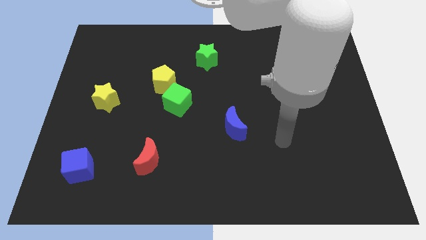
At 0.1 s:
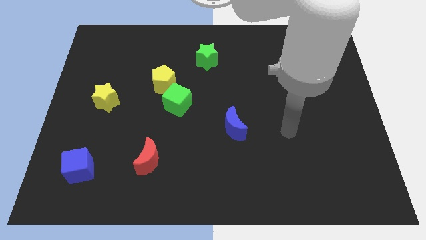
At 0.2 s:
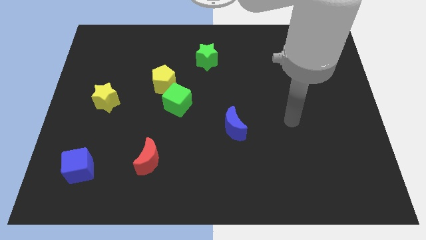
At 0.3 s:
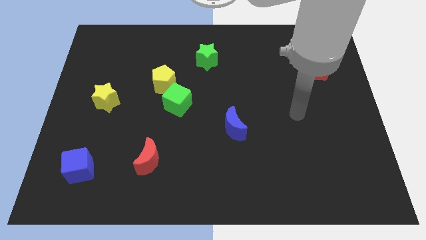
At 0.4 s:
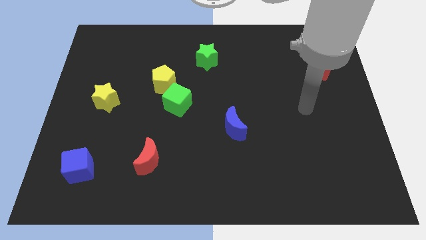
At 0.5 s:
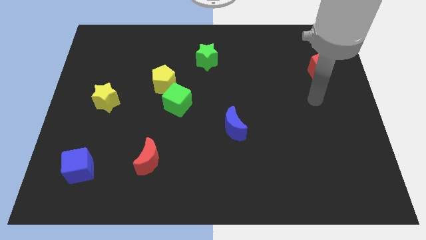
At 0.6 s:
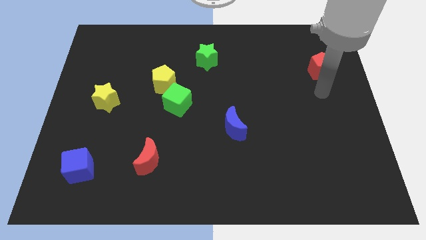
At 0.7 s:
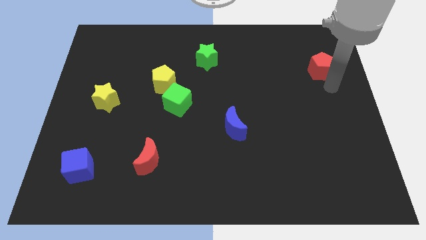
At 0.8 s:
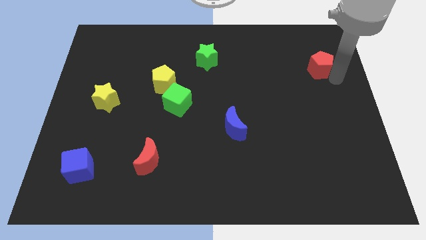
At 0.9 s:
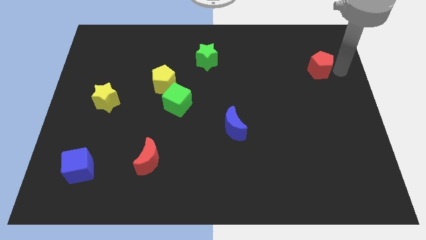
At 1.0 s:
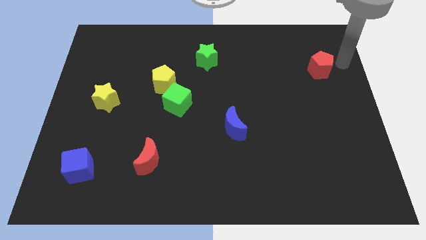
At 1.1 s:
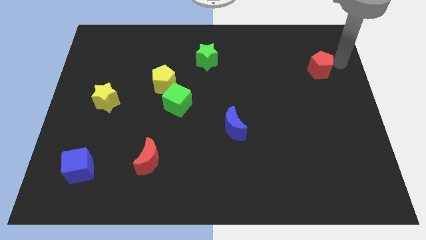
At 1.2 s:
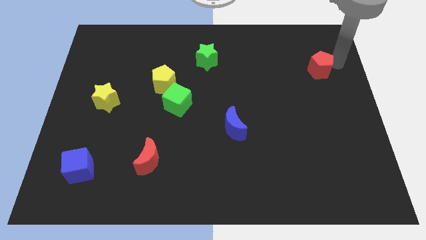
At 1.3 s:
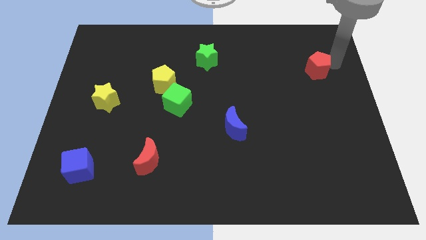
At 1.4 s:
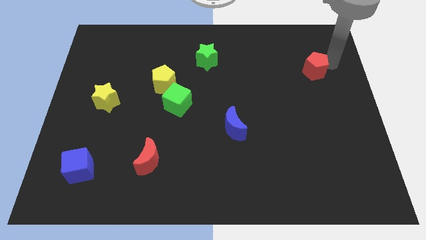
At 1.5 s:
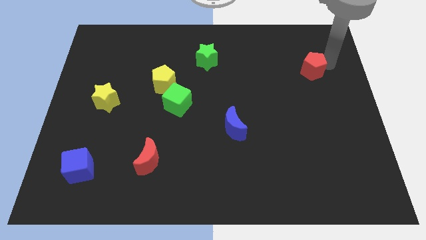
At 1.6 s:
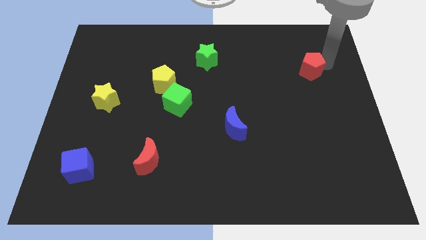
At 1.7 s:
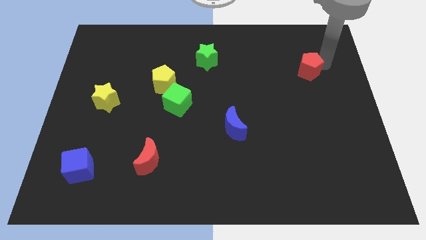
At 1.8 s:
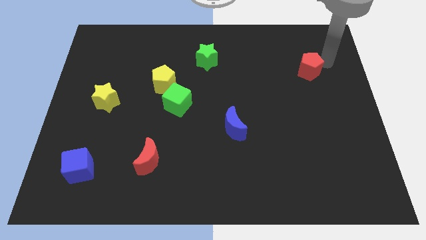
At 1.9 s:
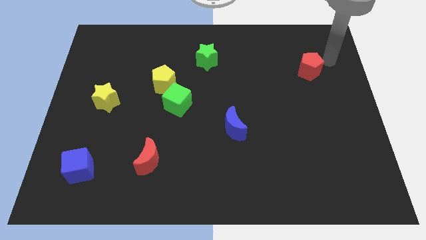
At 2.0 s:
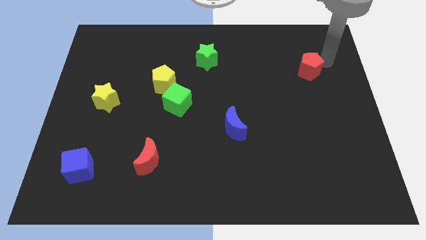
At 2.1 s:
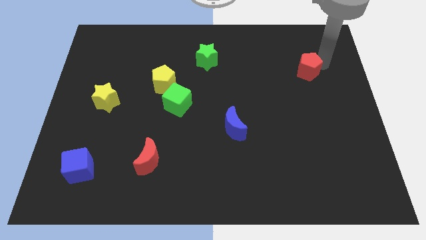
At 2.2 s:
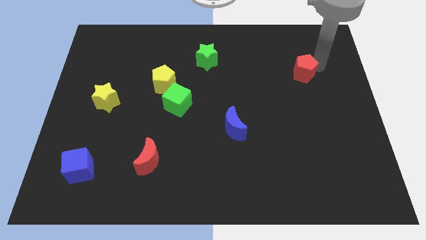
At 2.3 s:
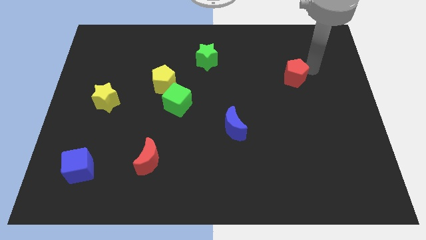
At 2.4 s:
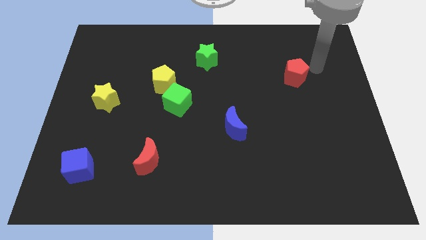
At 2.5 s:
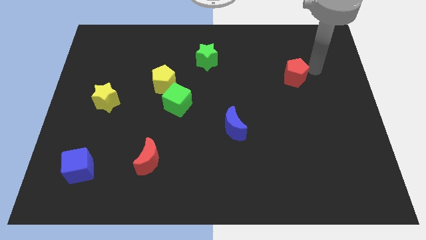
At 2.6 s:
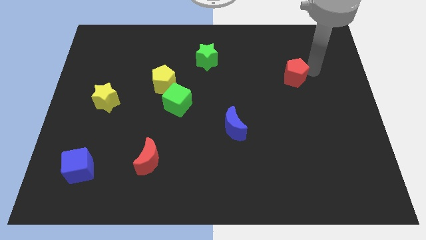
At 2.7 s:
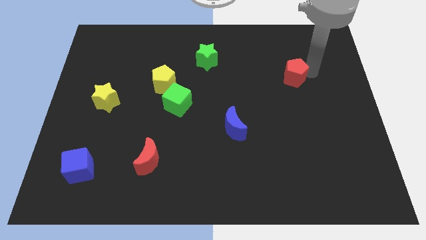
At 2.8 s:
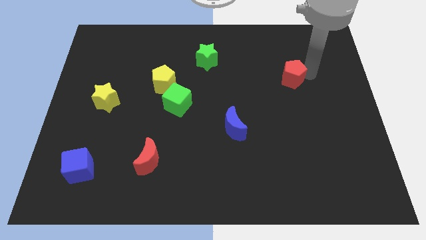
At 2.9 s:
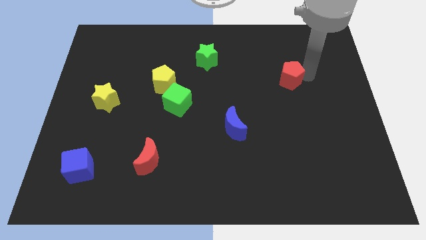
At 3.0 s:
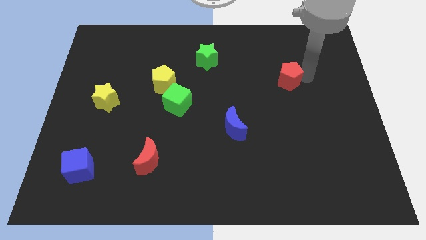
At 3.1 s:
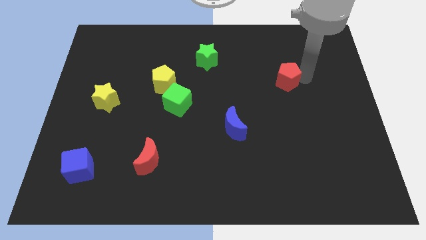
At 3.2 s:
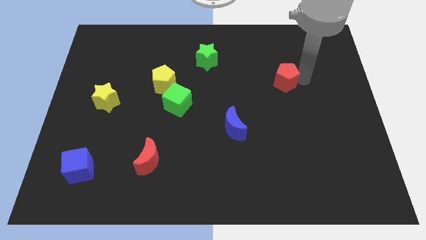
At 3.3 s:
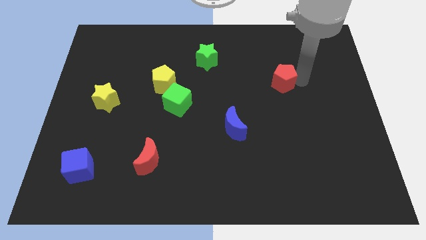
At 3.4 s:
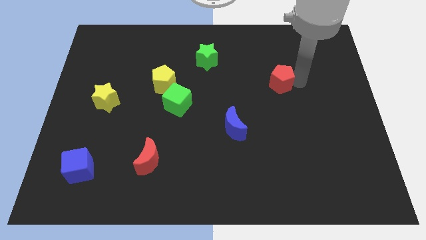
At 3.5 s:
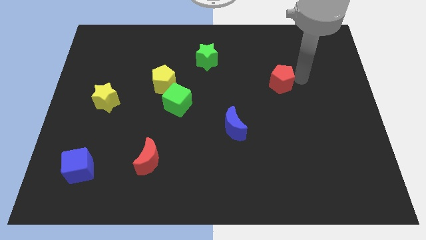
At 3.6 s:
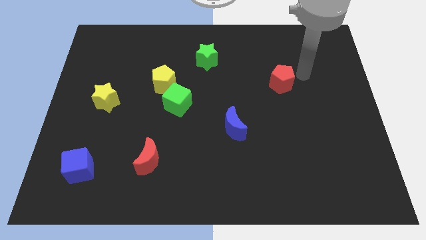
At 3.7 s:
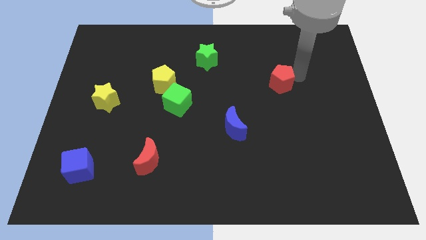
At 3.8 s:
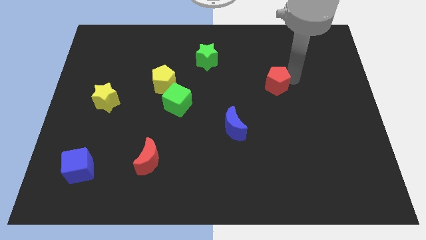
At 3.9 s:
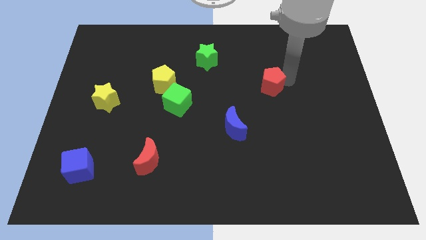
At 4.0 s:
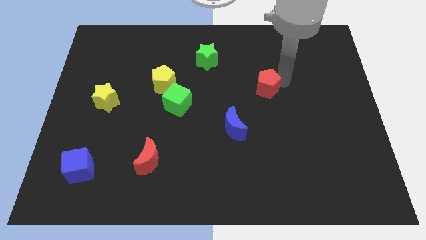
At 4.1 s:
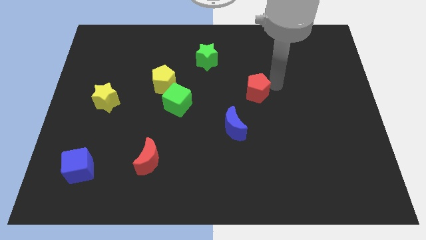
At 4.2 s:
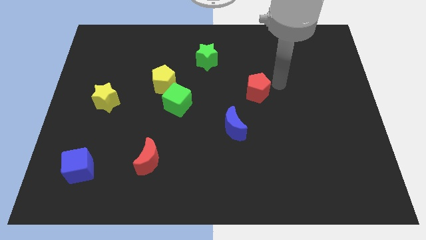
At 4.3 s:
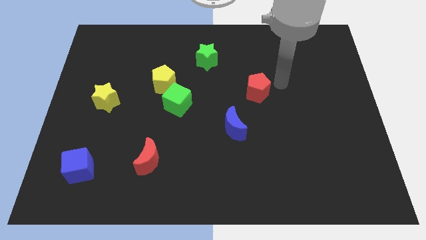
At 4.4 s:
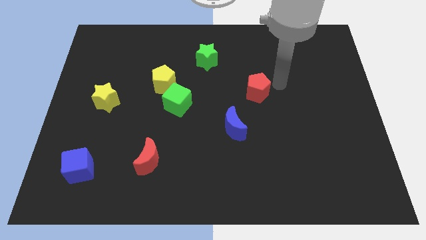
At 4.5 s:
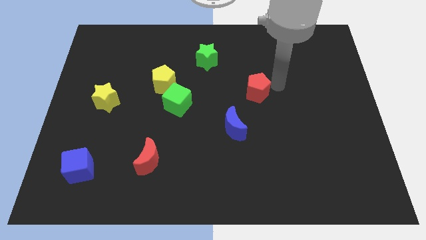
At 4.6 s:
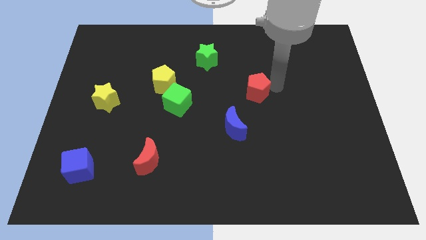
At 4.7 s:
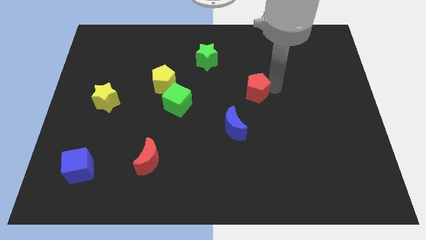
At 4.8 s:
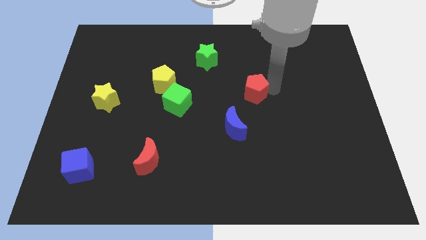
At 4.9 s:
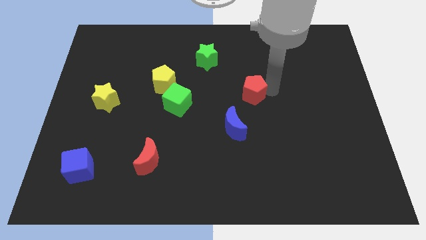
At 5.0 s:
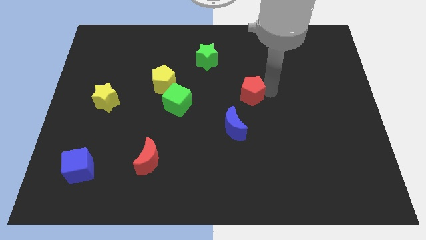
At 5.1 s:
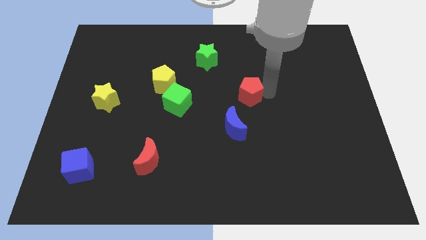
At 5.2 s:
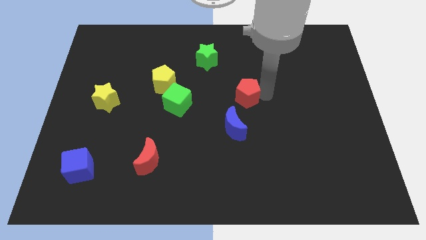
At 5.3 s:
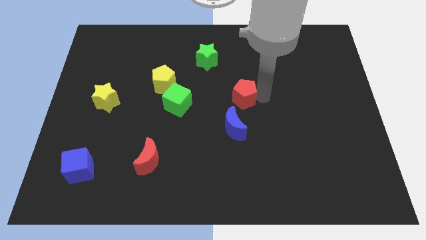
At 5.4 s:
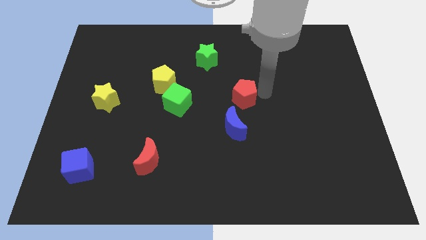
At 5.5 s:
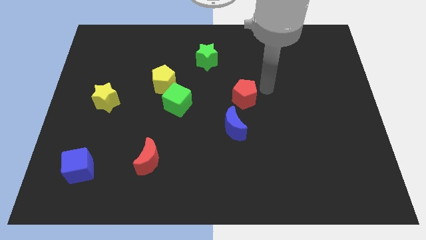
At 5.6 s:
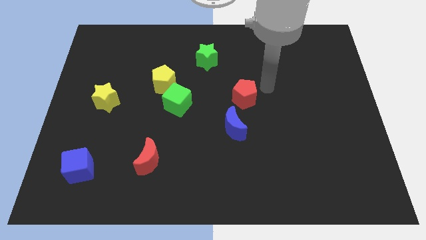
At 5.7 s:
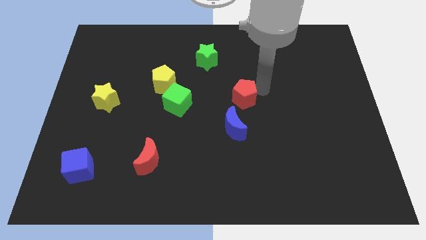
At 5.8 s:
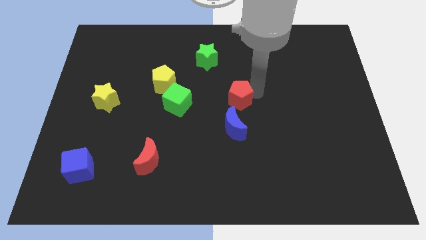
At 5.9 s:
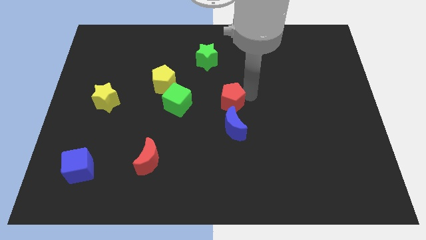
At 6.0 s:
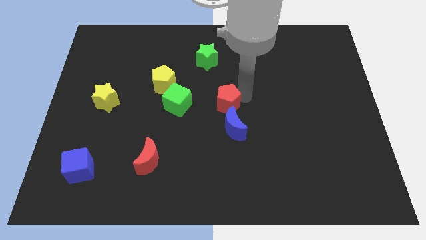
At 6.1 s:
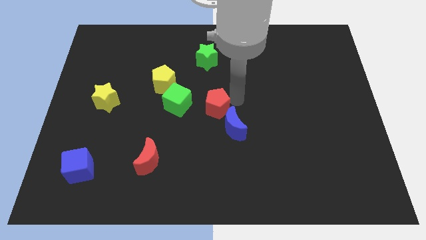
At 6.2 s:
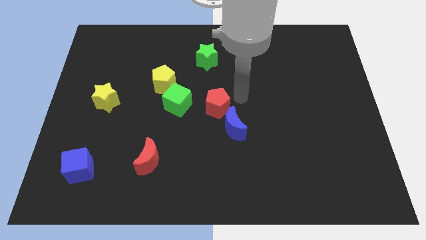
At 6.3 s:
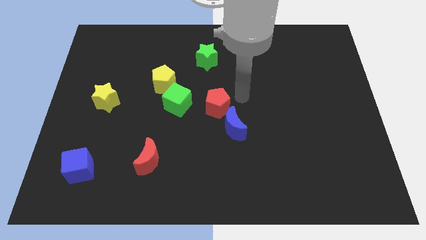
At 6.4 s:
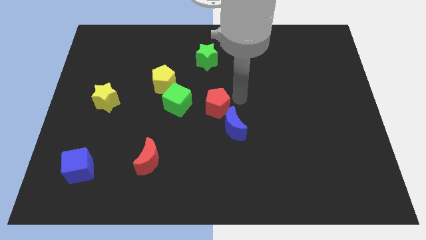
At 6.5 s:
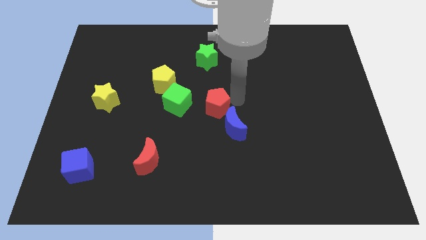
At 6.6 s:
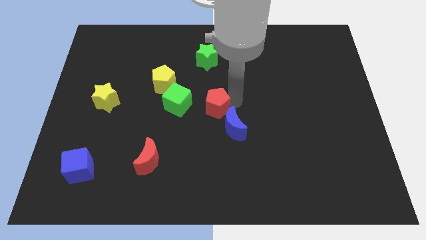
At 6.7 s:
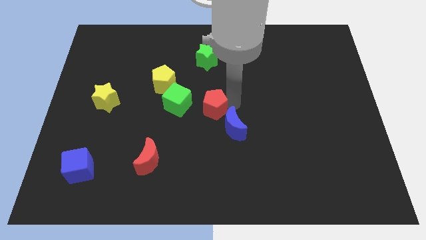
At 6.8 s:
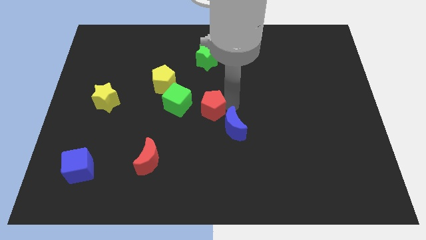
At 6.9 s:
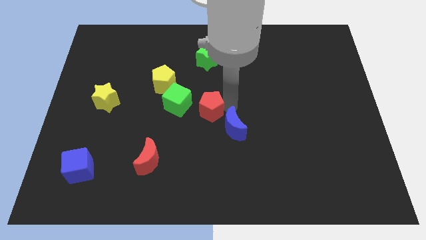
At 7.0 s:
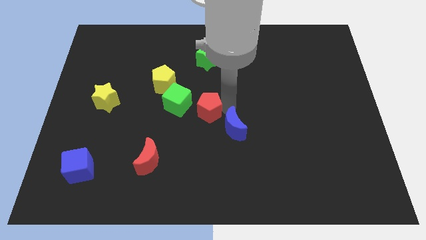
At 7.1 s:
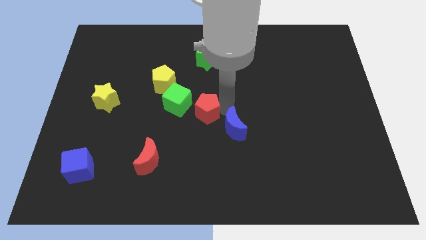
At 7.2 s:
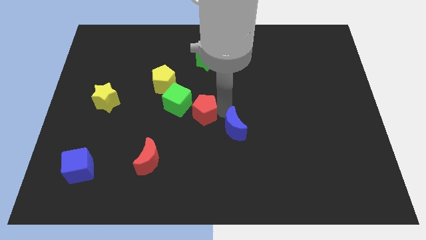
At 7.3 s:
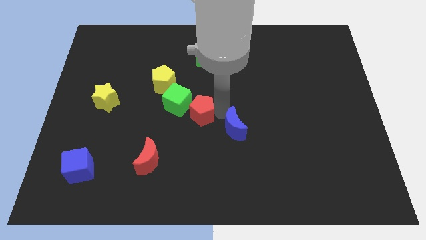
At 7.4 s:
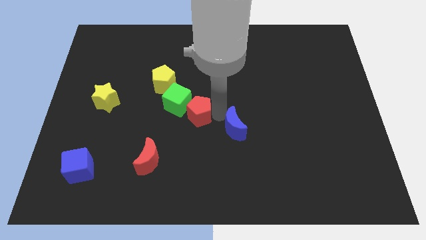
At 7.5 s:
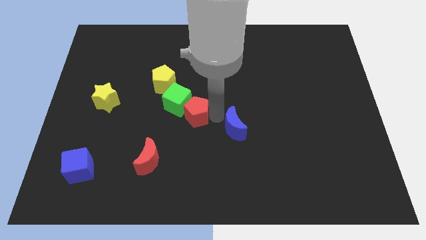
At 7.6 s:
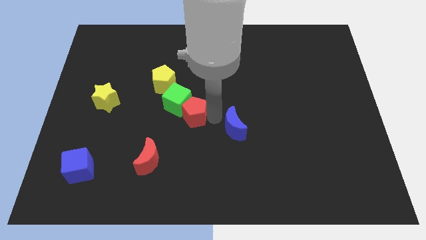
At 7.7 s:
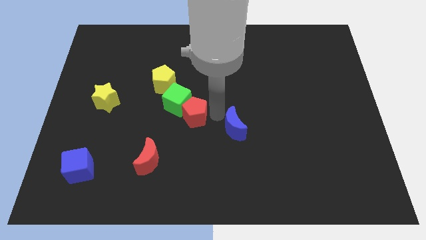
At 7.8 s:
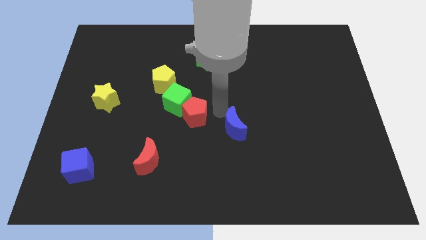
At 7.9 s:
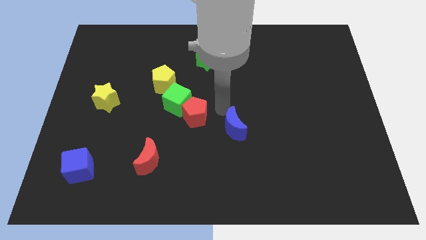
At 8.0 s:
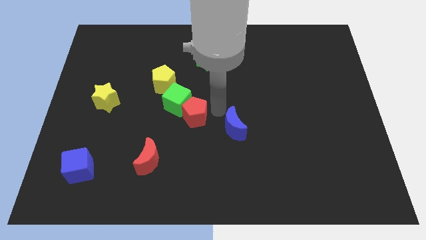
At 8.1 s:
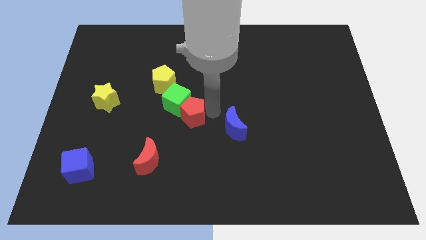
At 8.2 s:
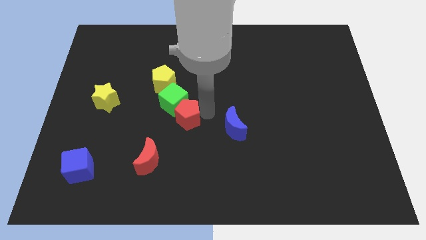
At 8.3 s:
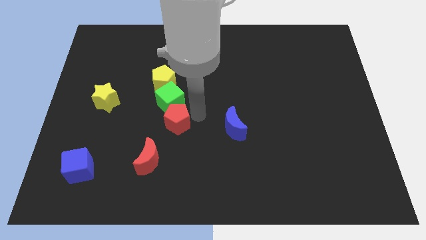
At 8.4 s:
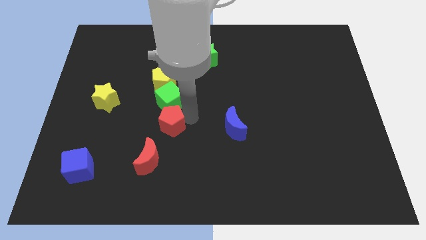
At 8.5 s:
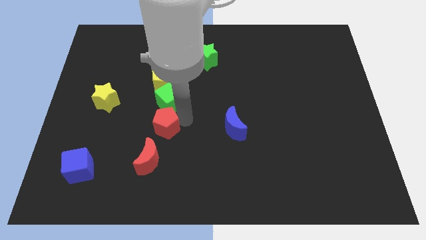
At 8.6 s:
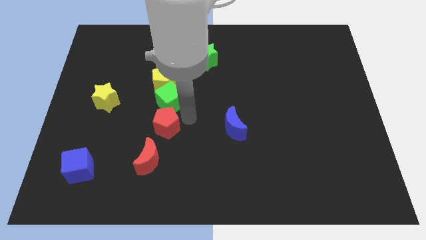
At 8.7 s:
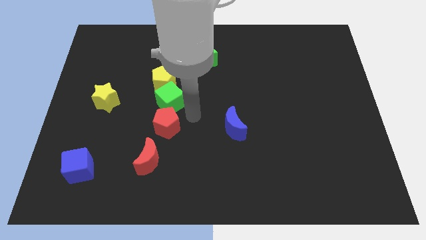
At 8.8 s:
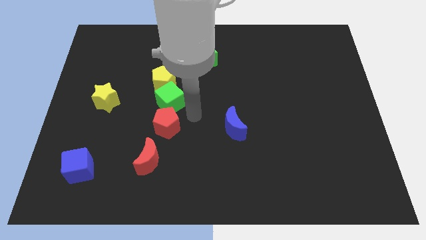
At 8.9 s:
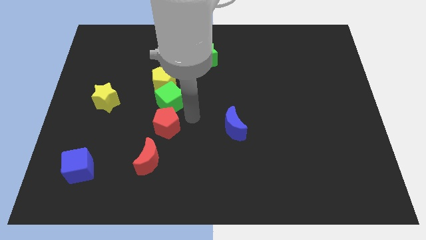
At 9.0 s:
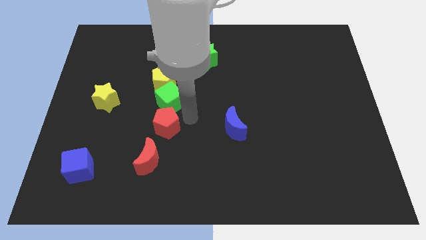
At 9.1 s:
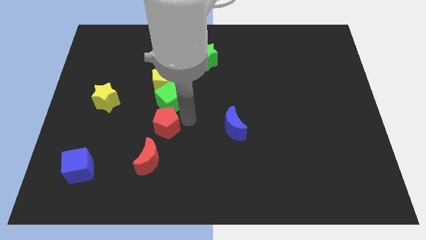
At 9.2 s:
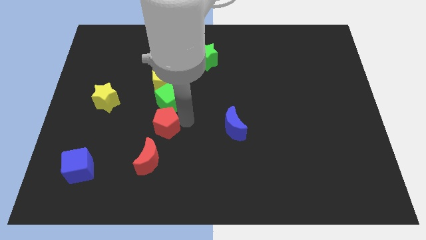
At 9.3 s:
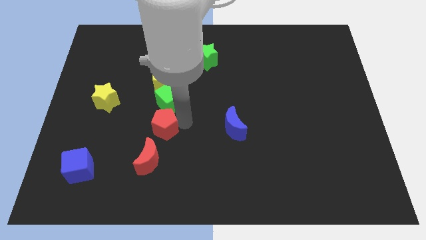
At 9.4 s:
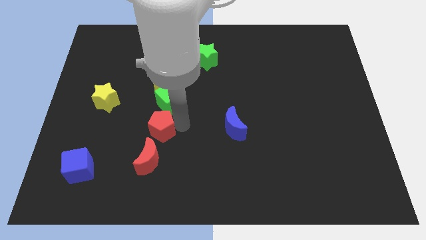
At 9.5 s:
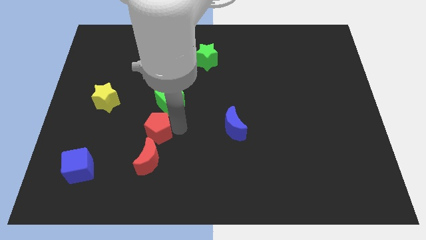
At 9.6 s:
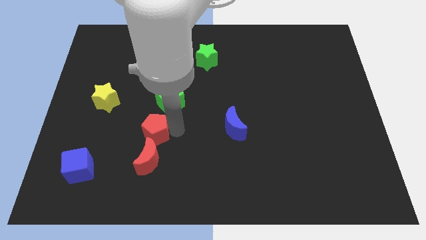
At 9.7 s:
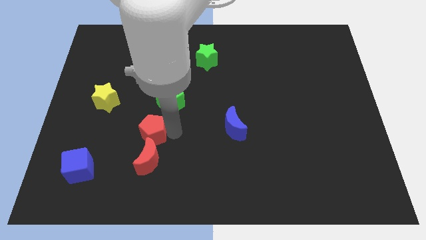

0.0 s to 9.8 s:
move the red pentagon to the top left side of the red moon
